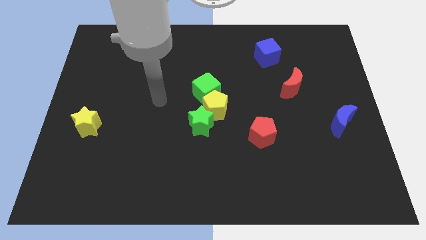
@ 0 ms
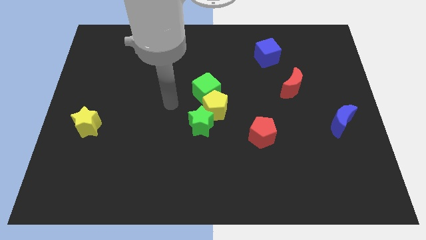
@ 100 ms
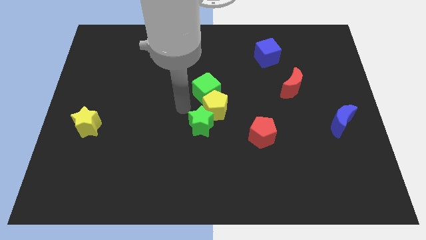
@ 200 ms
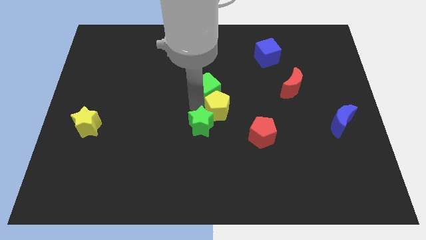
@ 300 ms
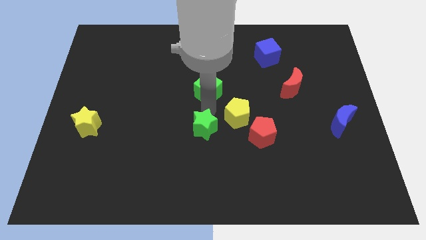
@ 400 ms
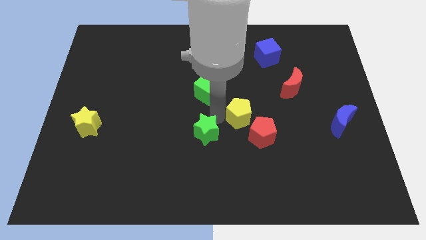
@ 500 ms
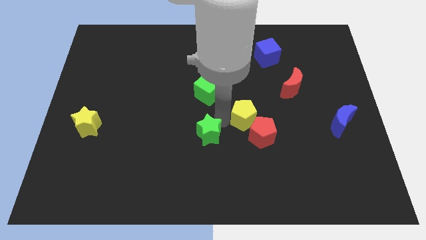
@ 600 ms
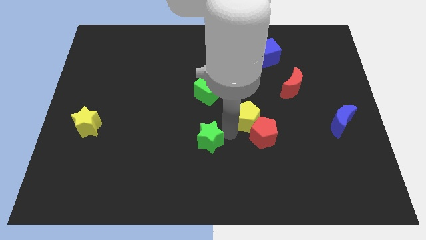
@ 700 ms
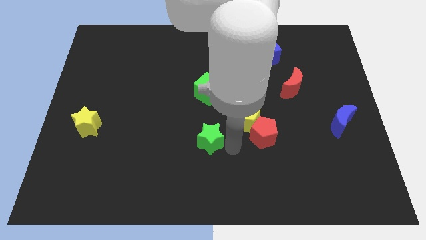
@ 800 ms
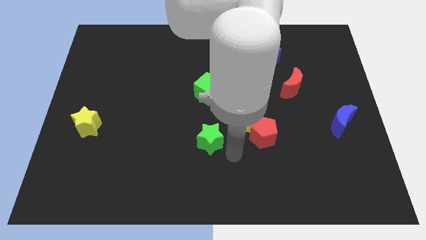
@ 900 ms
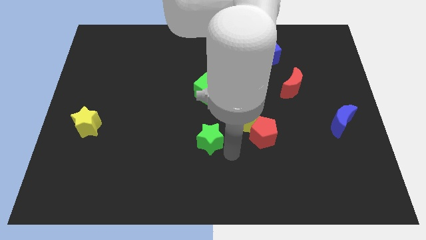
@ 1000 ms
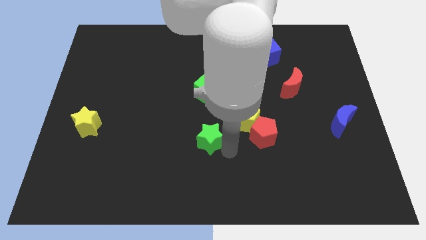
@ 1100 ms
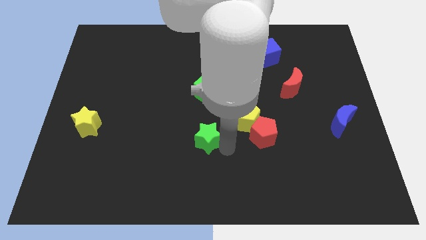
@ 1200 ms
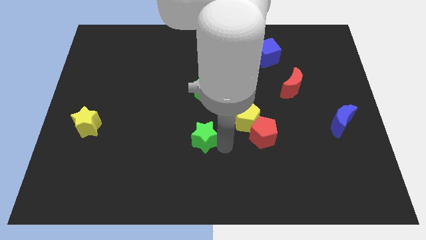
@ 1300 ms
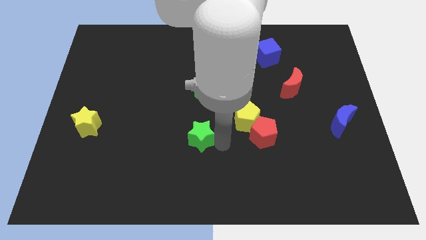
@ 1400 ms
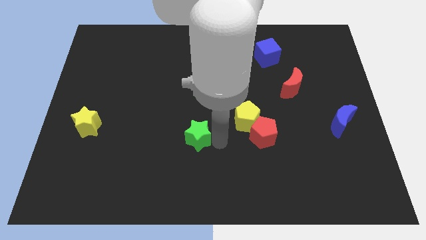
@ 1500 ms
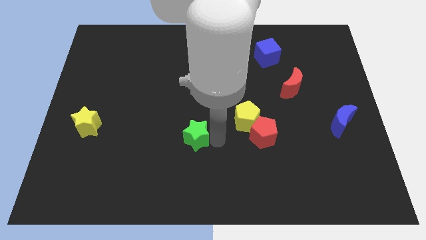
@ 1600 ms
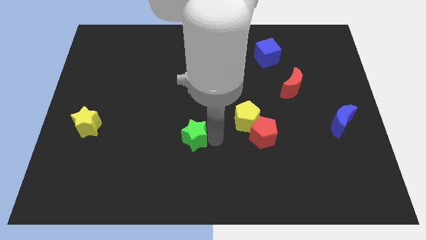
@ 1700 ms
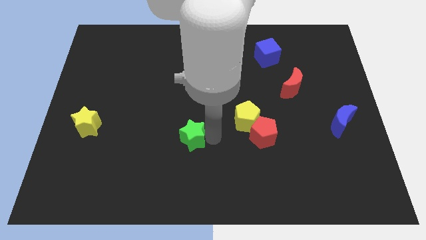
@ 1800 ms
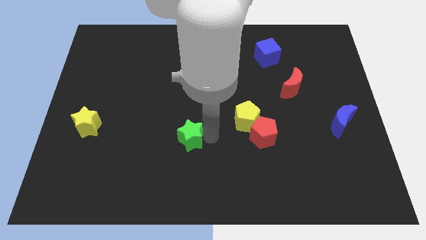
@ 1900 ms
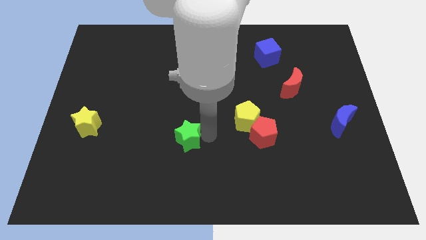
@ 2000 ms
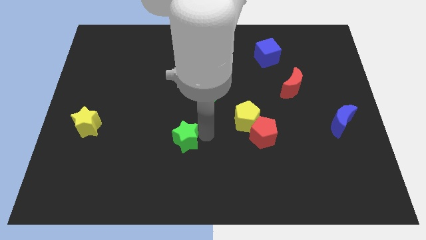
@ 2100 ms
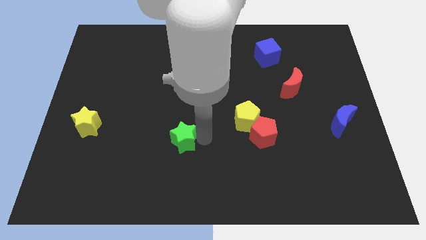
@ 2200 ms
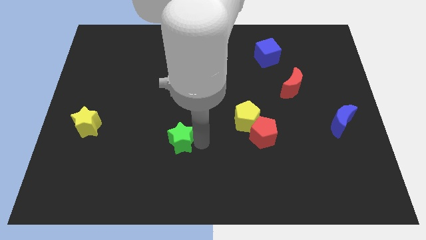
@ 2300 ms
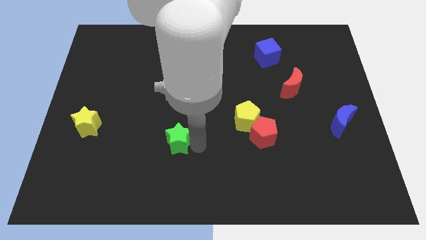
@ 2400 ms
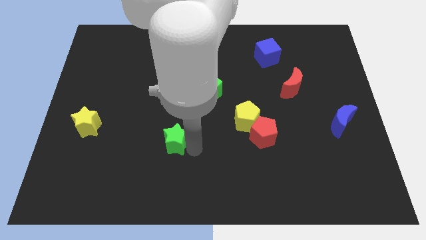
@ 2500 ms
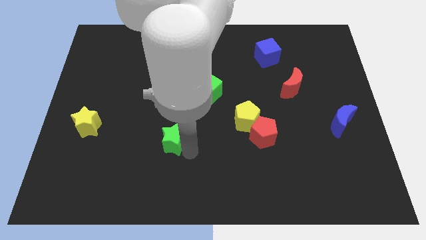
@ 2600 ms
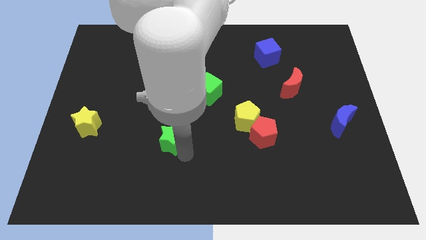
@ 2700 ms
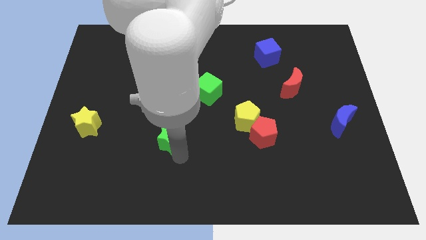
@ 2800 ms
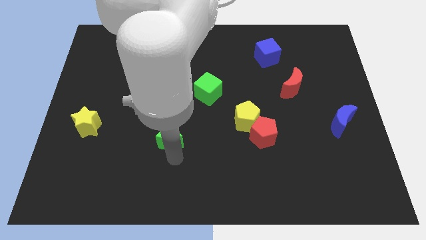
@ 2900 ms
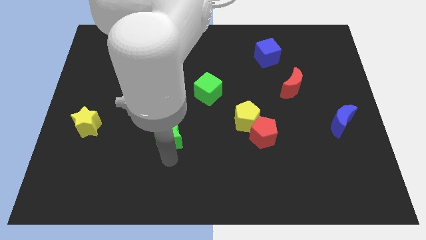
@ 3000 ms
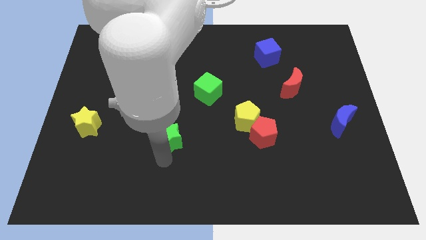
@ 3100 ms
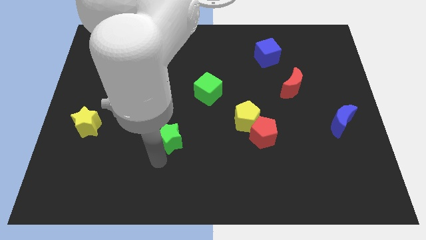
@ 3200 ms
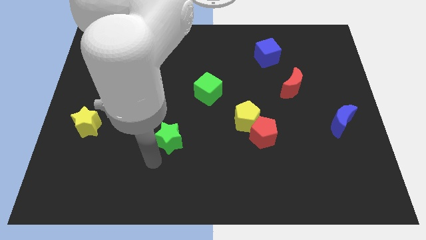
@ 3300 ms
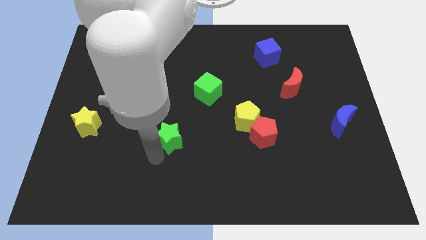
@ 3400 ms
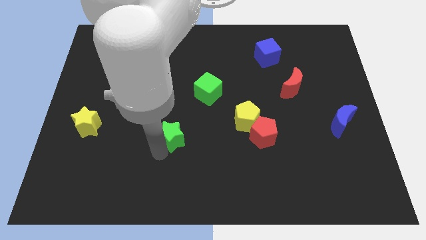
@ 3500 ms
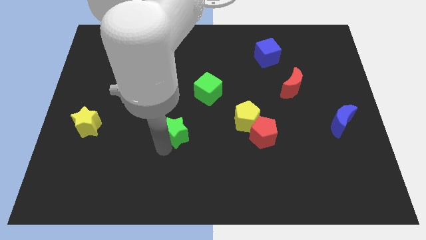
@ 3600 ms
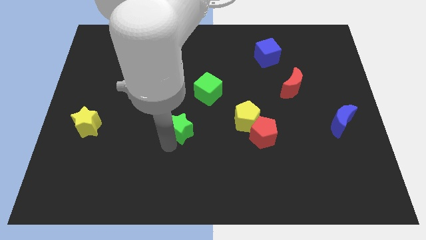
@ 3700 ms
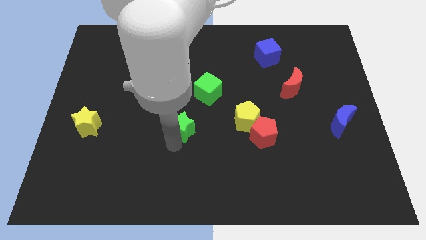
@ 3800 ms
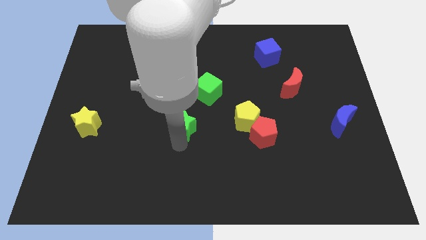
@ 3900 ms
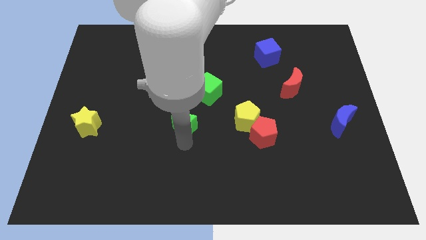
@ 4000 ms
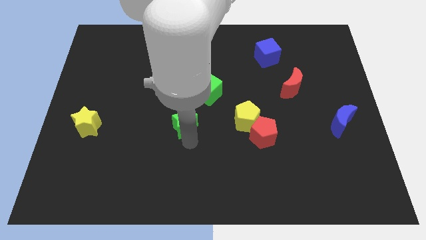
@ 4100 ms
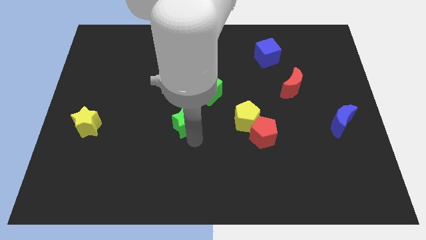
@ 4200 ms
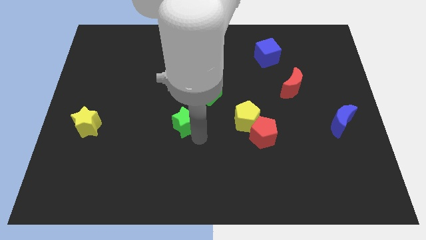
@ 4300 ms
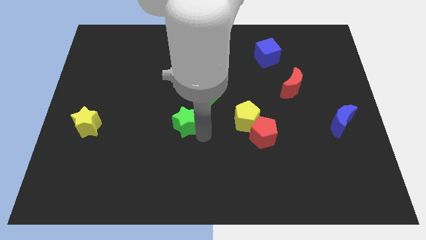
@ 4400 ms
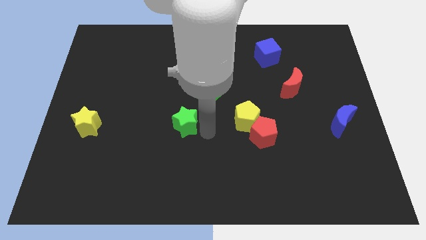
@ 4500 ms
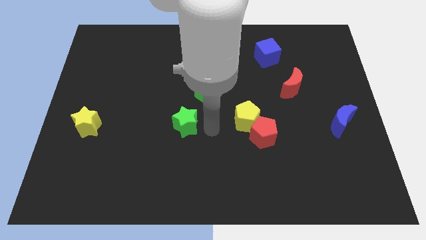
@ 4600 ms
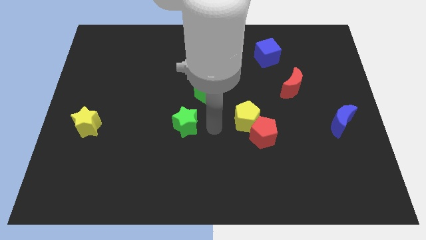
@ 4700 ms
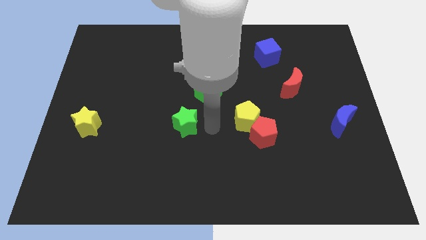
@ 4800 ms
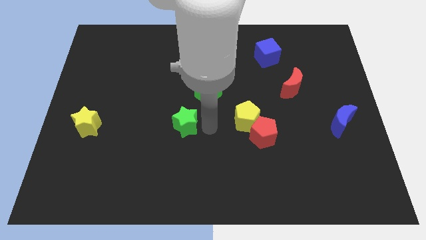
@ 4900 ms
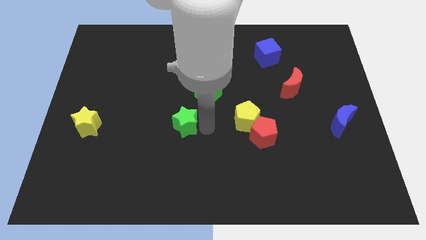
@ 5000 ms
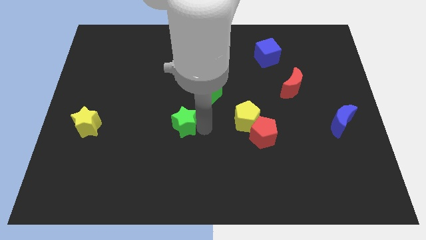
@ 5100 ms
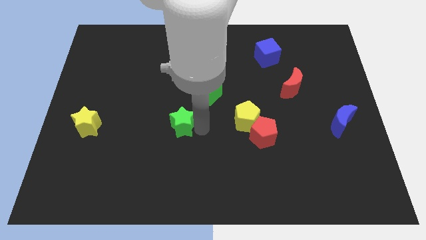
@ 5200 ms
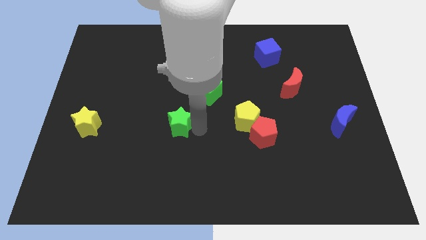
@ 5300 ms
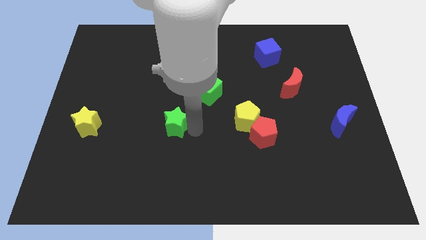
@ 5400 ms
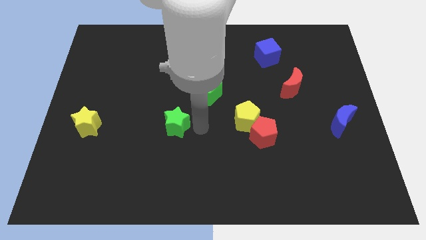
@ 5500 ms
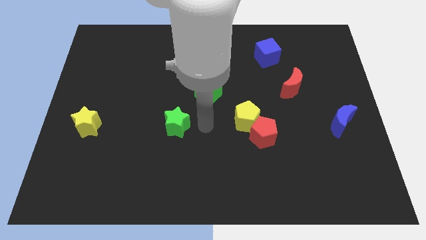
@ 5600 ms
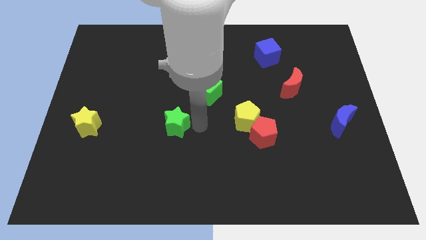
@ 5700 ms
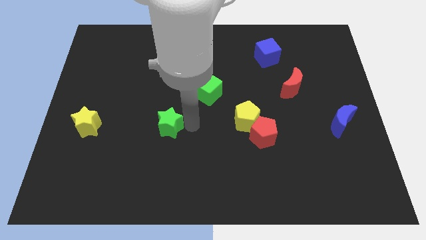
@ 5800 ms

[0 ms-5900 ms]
slide the green star somewhat left

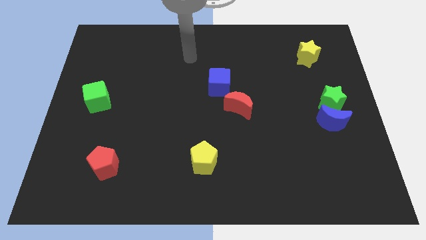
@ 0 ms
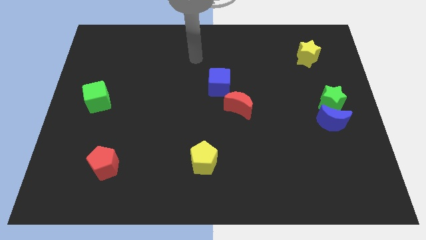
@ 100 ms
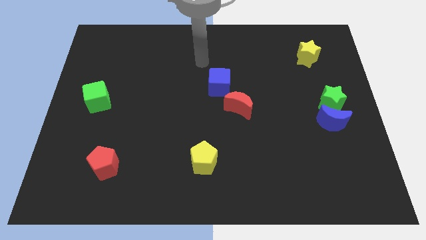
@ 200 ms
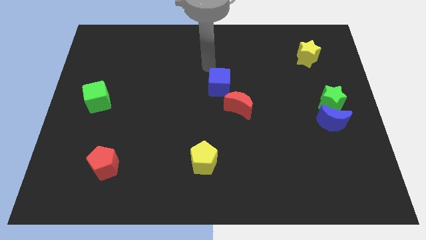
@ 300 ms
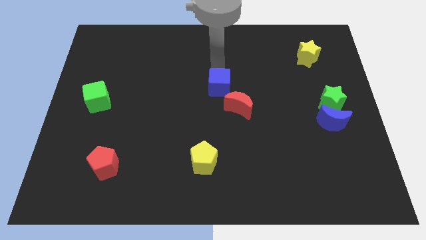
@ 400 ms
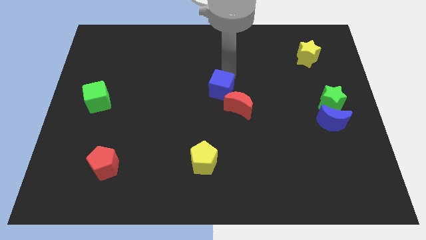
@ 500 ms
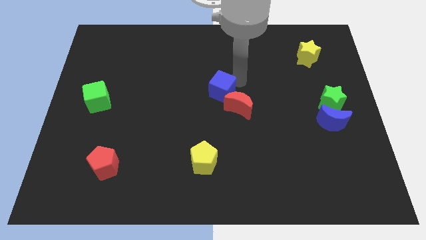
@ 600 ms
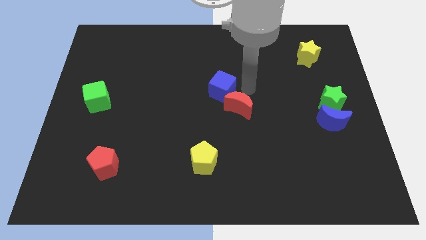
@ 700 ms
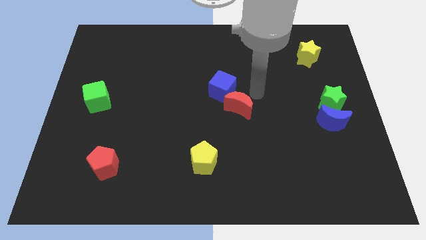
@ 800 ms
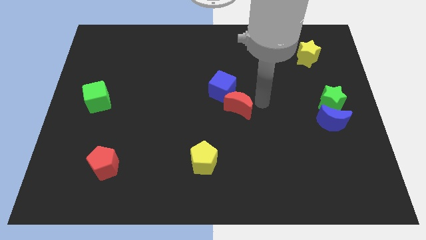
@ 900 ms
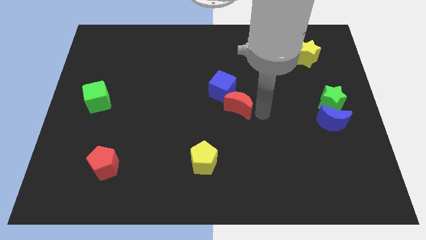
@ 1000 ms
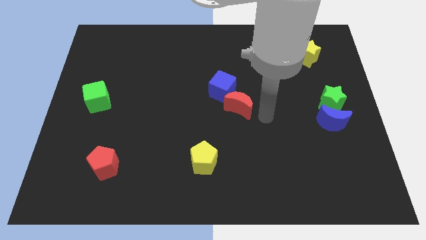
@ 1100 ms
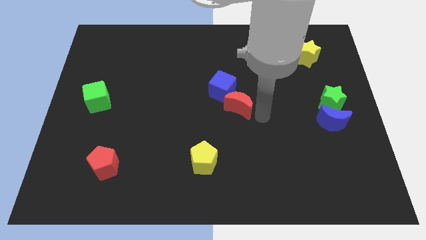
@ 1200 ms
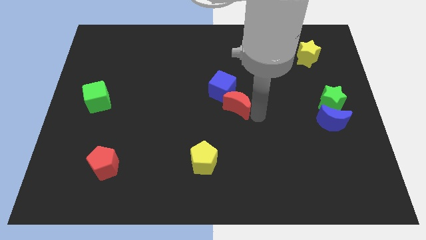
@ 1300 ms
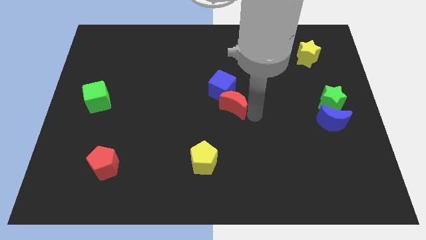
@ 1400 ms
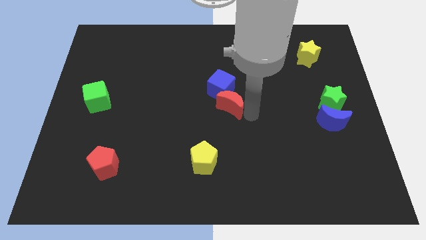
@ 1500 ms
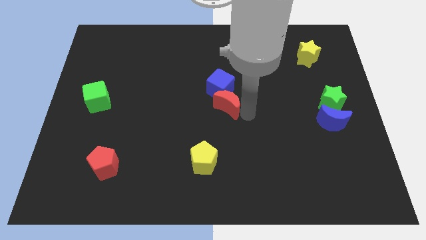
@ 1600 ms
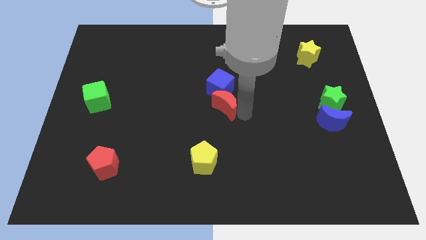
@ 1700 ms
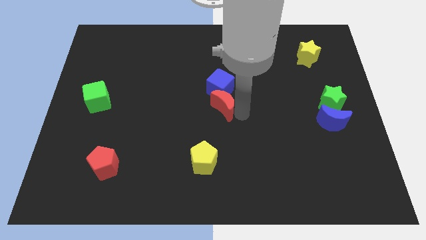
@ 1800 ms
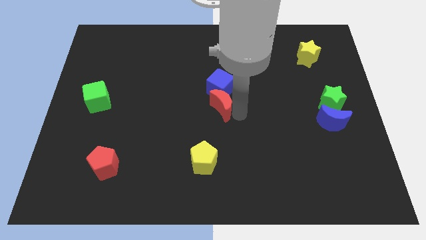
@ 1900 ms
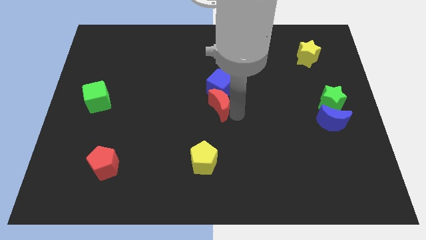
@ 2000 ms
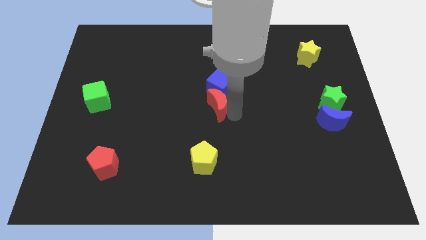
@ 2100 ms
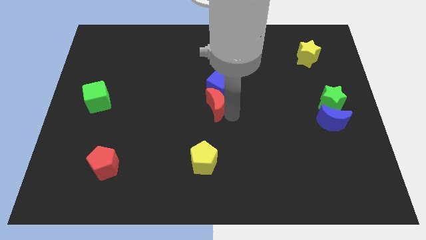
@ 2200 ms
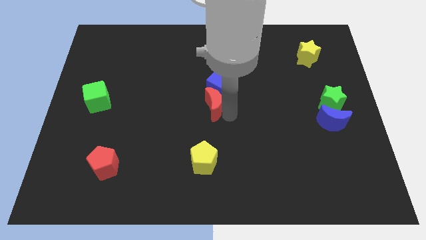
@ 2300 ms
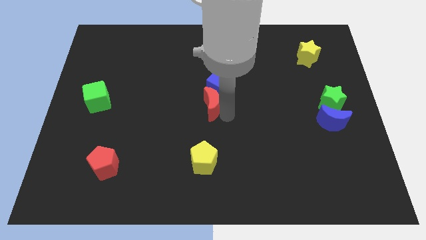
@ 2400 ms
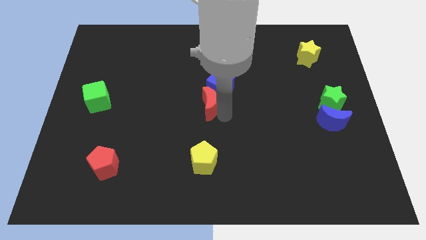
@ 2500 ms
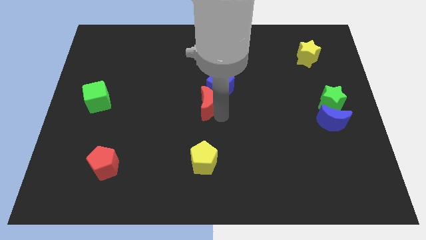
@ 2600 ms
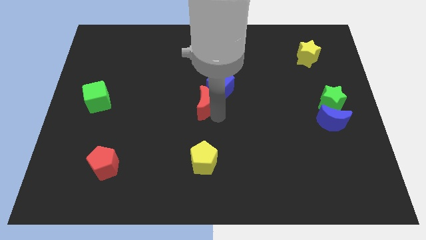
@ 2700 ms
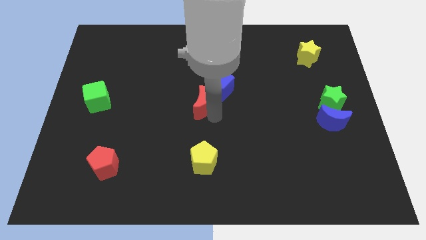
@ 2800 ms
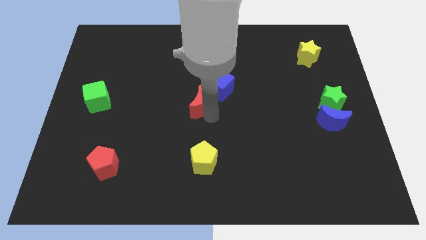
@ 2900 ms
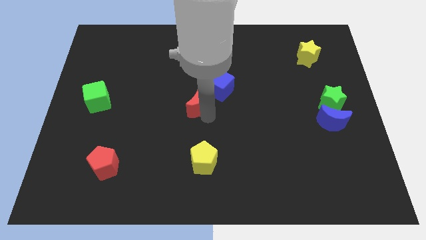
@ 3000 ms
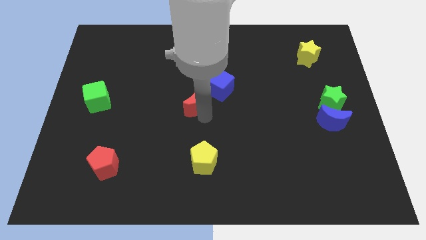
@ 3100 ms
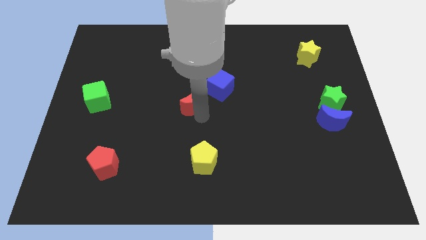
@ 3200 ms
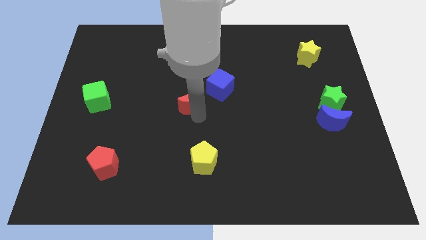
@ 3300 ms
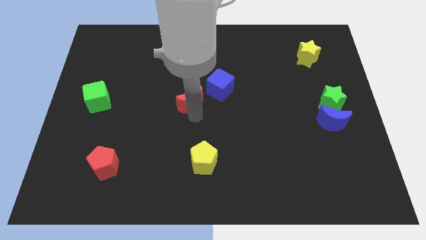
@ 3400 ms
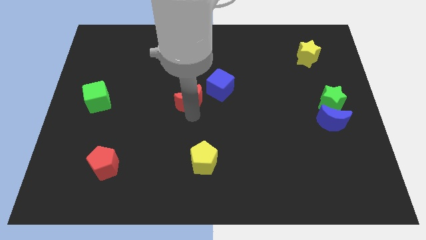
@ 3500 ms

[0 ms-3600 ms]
push the red moon slightly upwards and then left
